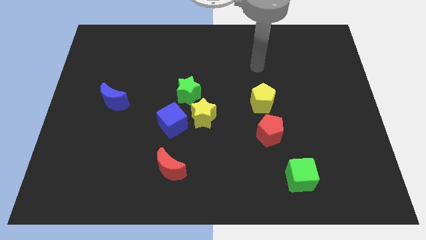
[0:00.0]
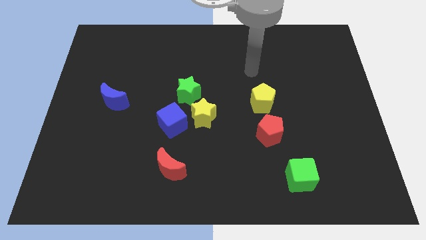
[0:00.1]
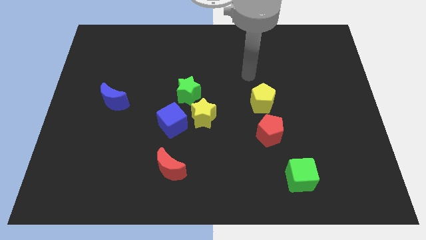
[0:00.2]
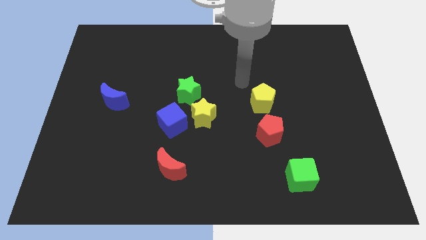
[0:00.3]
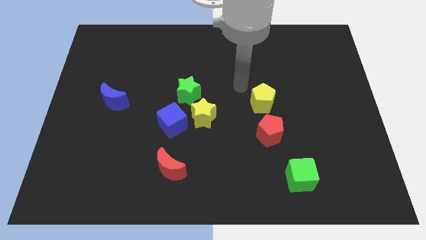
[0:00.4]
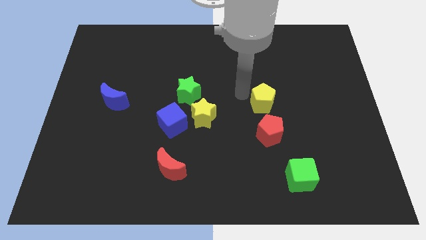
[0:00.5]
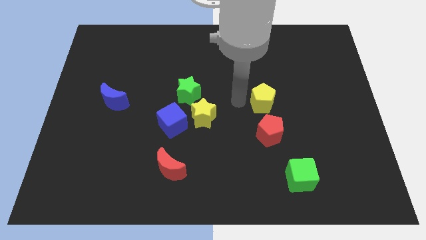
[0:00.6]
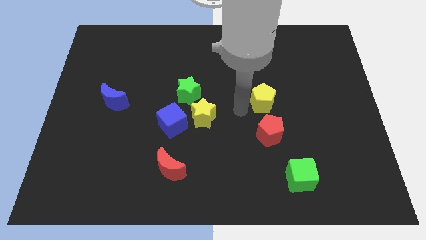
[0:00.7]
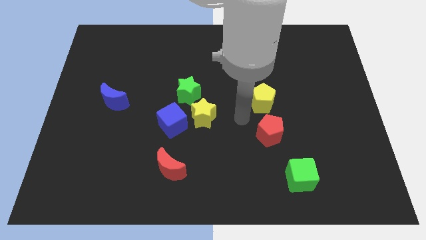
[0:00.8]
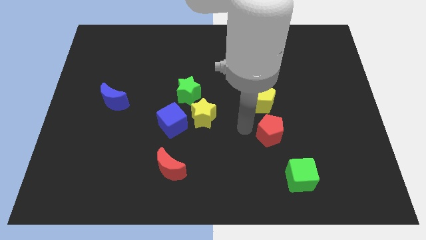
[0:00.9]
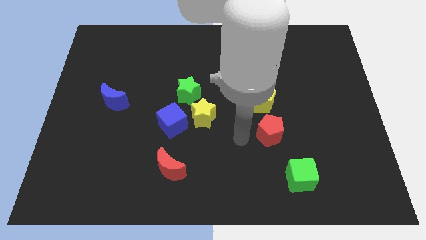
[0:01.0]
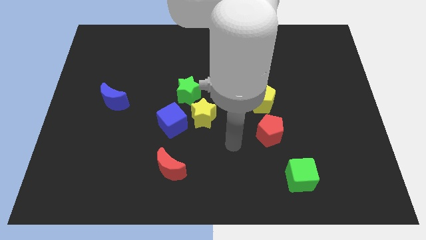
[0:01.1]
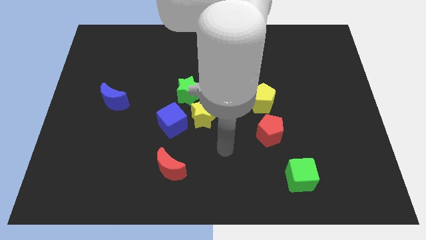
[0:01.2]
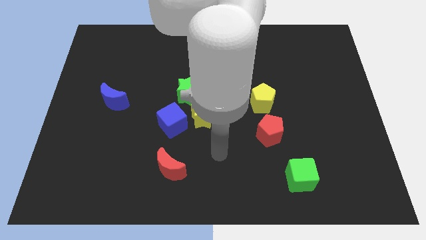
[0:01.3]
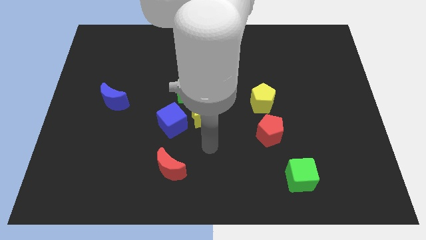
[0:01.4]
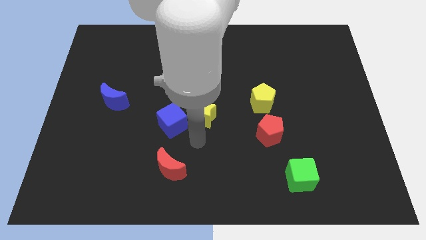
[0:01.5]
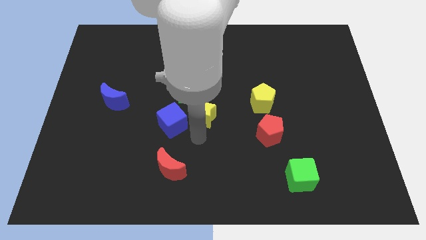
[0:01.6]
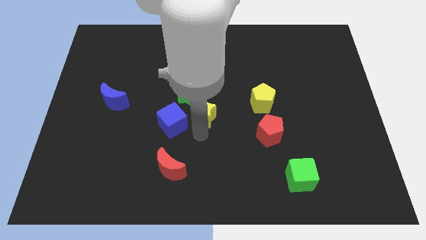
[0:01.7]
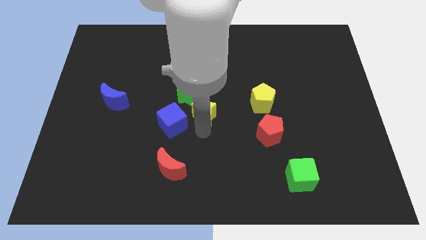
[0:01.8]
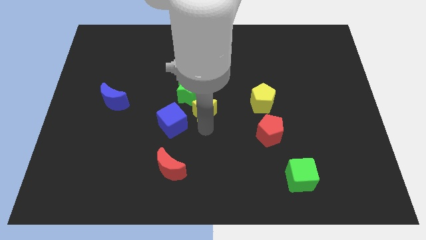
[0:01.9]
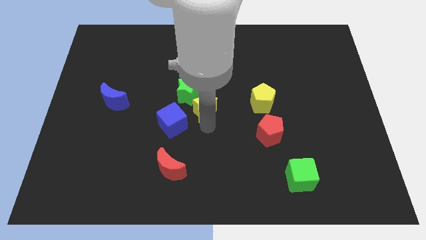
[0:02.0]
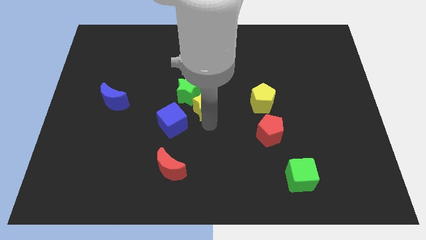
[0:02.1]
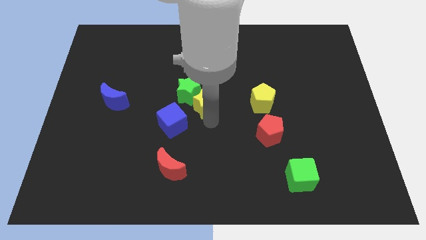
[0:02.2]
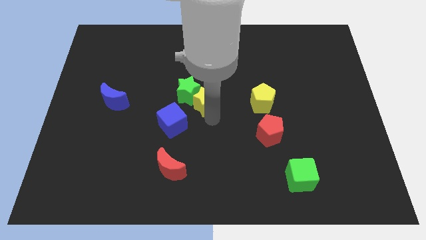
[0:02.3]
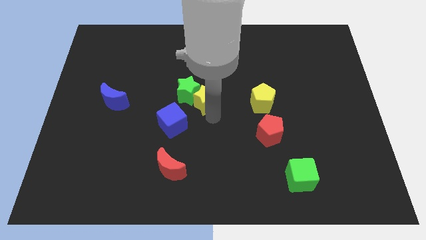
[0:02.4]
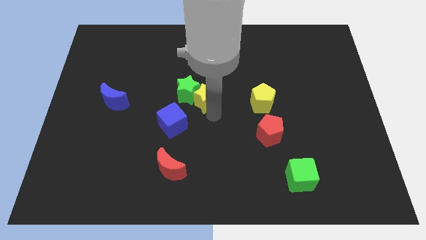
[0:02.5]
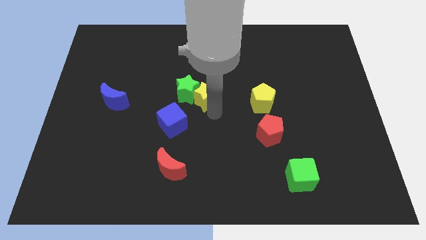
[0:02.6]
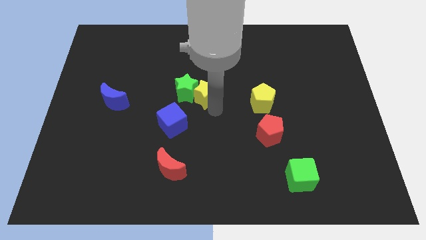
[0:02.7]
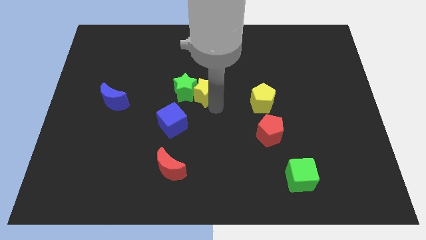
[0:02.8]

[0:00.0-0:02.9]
move the yellow star up a bit

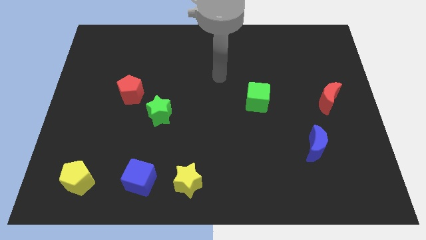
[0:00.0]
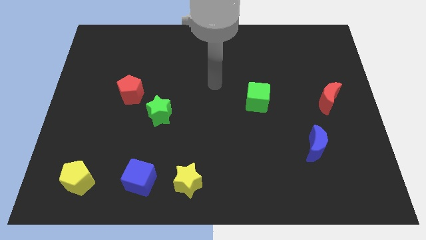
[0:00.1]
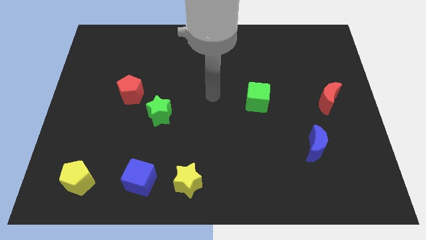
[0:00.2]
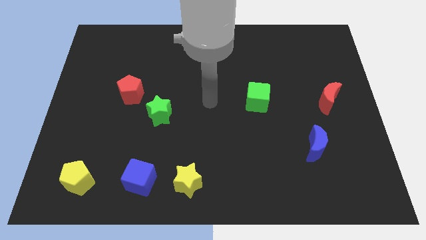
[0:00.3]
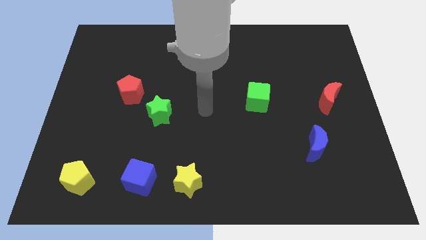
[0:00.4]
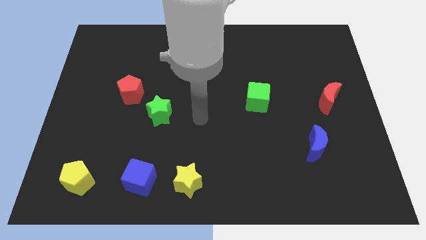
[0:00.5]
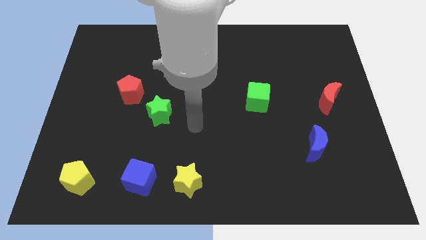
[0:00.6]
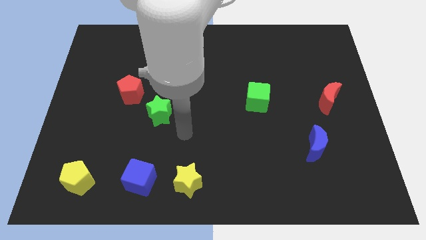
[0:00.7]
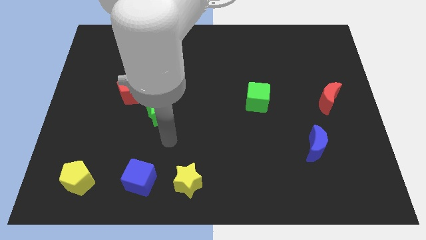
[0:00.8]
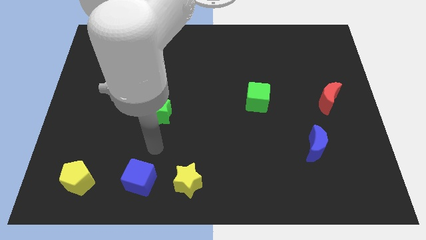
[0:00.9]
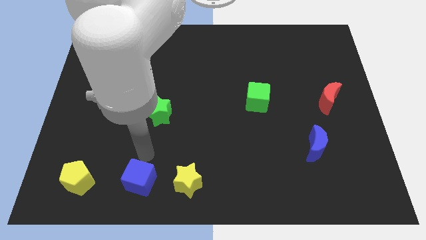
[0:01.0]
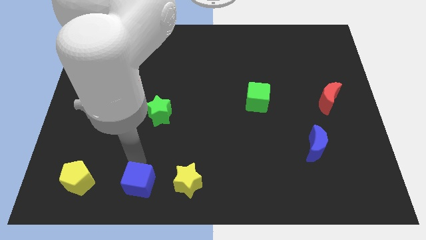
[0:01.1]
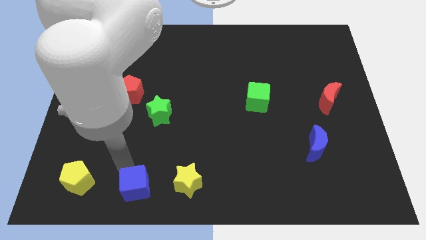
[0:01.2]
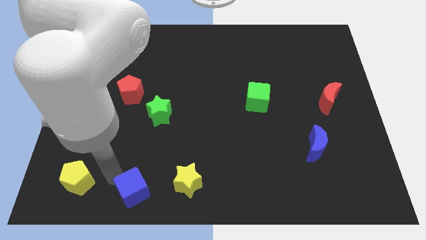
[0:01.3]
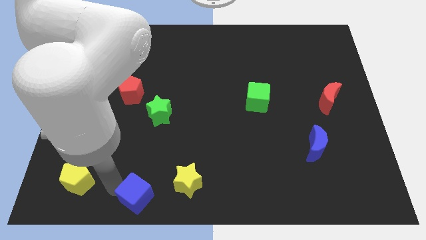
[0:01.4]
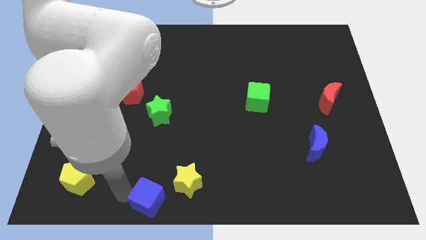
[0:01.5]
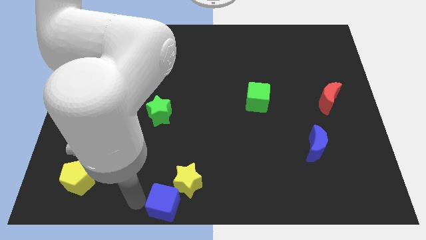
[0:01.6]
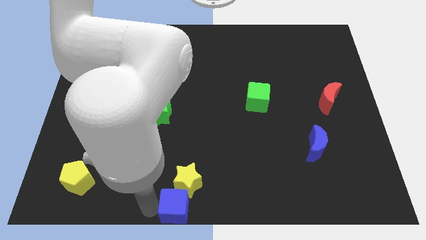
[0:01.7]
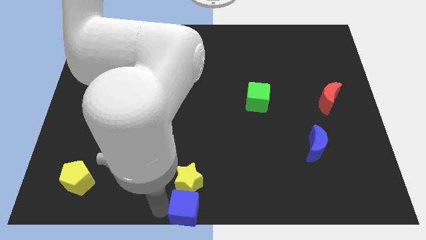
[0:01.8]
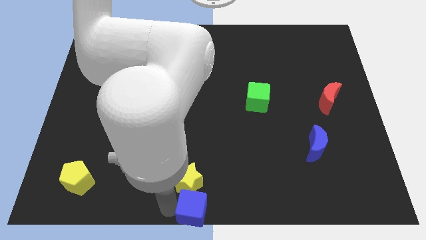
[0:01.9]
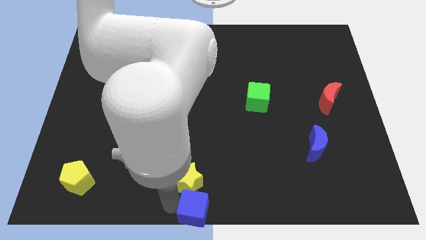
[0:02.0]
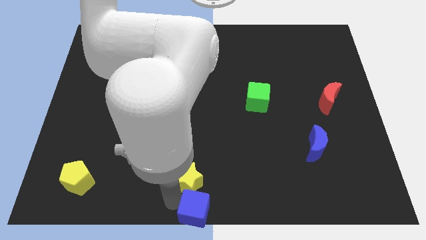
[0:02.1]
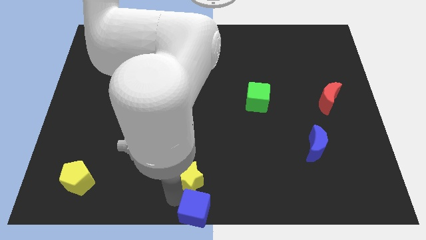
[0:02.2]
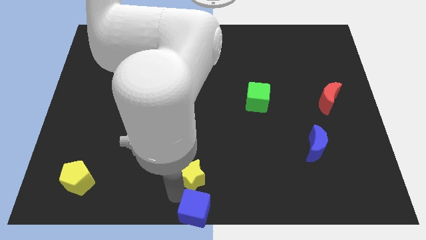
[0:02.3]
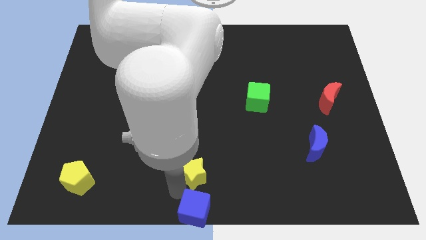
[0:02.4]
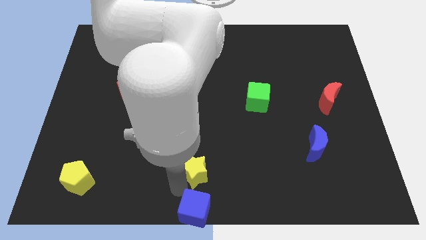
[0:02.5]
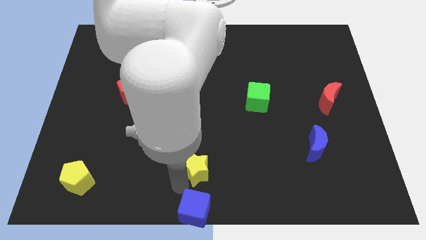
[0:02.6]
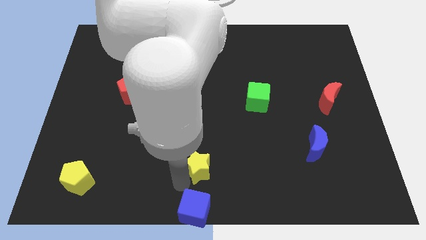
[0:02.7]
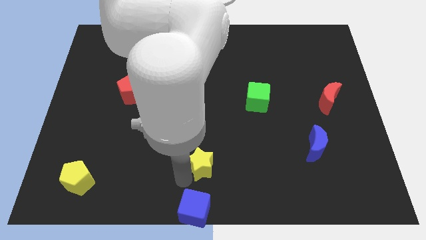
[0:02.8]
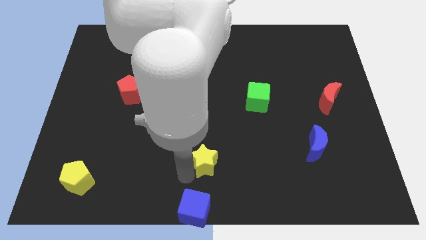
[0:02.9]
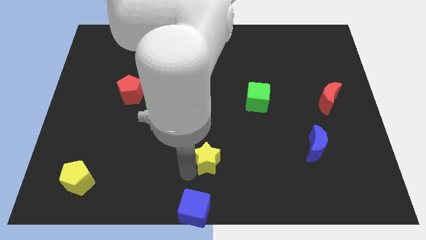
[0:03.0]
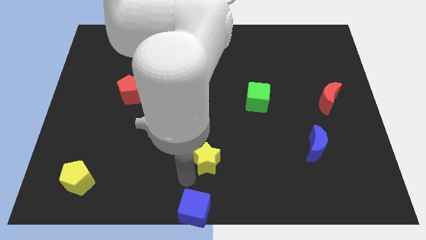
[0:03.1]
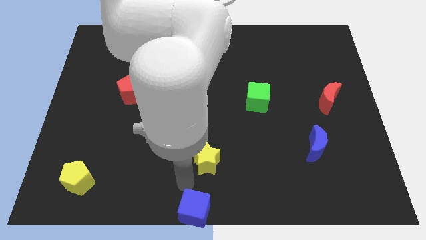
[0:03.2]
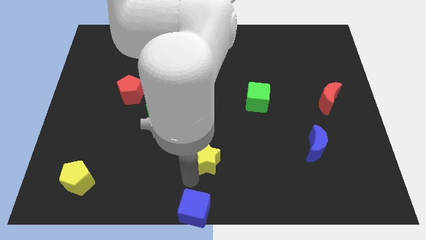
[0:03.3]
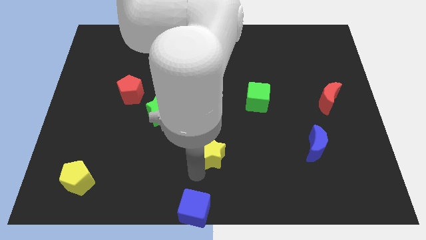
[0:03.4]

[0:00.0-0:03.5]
move the yellow star upwards and to the right diagonally a bit

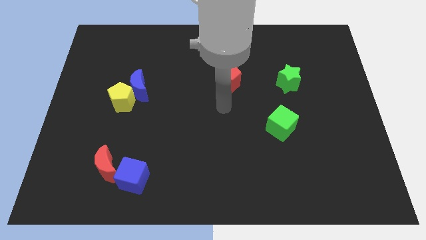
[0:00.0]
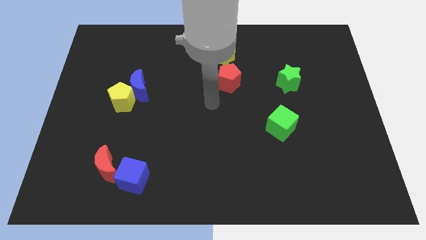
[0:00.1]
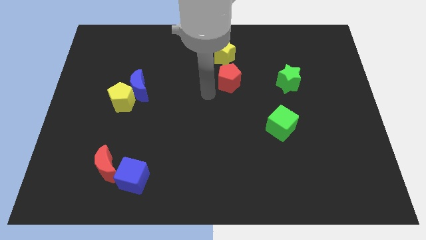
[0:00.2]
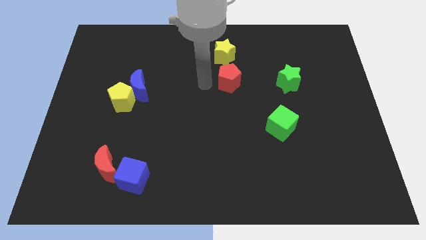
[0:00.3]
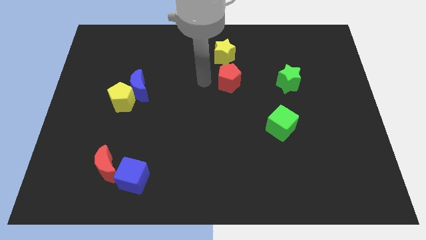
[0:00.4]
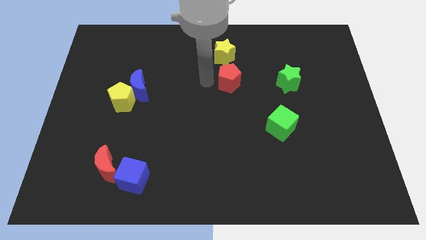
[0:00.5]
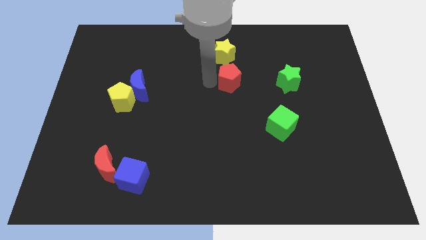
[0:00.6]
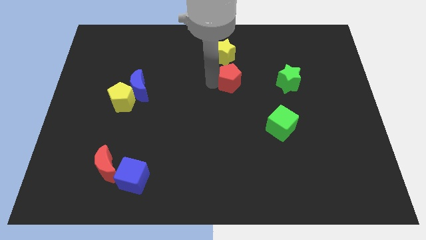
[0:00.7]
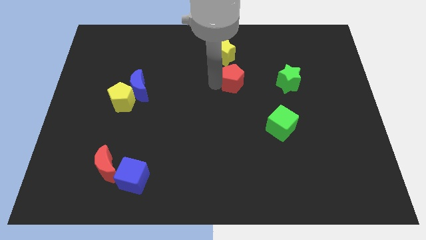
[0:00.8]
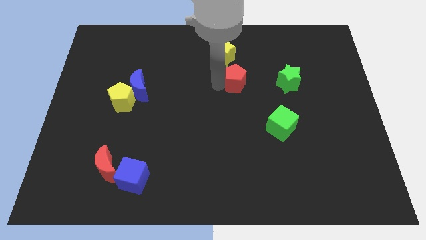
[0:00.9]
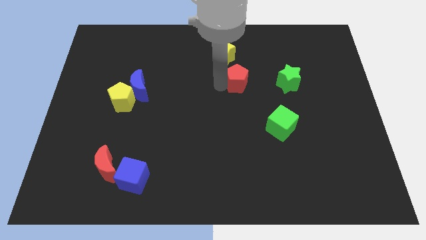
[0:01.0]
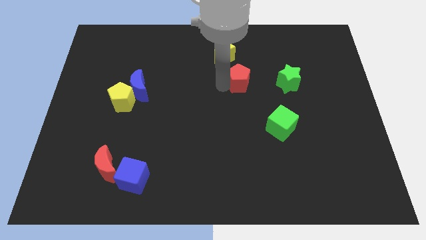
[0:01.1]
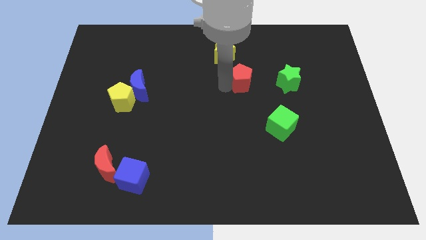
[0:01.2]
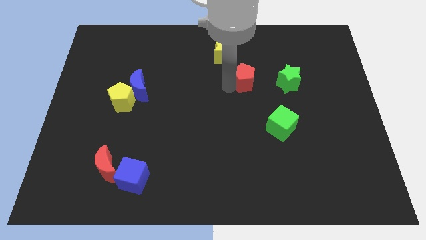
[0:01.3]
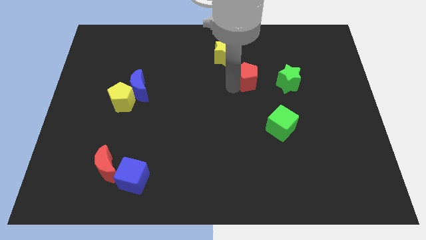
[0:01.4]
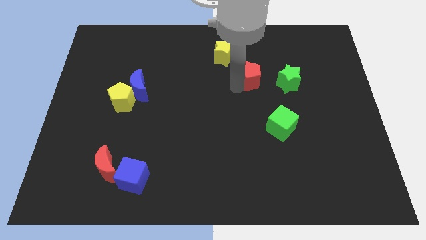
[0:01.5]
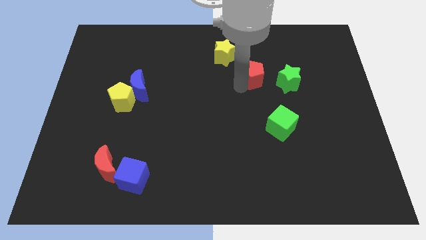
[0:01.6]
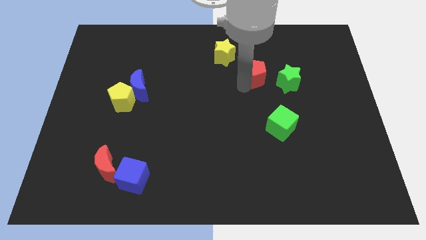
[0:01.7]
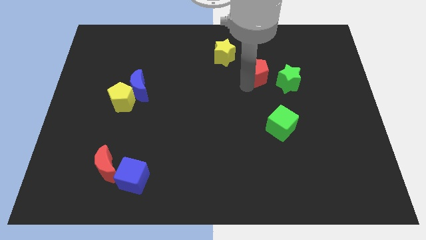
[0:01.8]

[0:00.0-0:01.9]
slightly slide the red pentagon to the right
